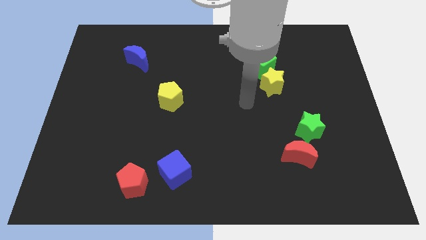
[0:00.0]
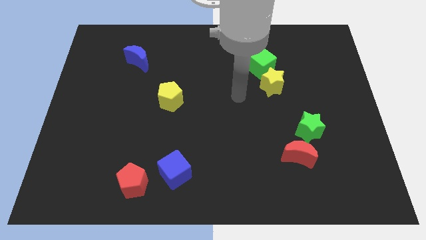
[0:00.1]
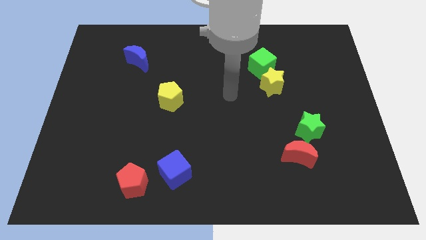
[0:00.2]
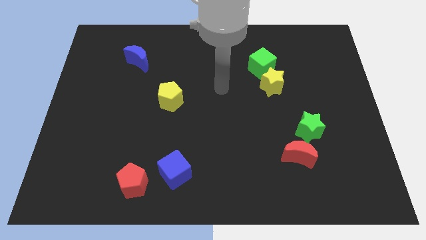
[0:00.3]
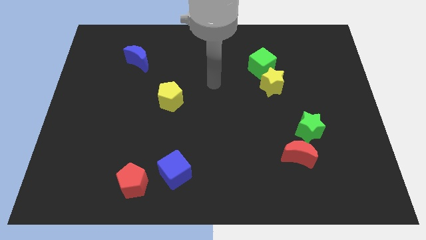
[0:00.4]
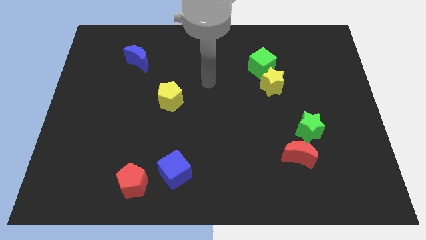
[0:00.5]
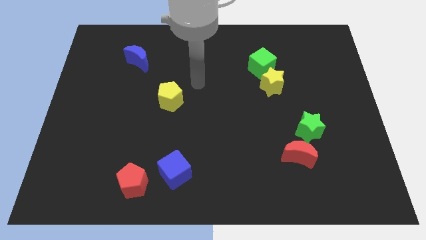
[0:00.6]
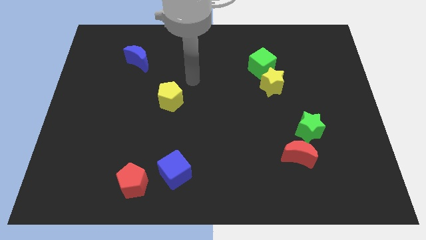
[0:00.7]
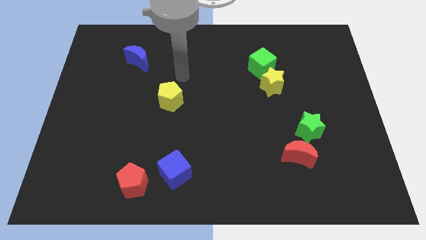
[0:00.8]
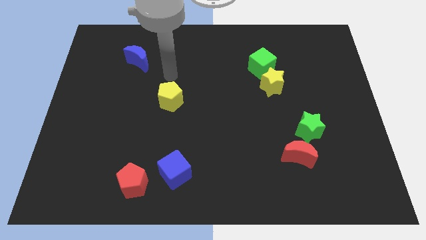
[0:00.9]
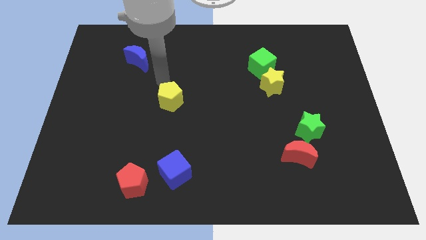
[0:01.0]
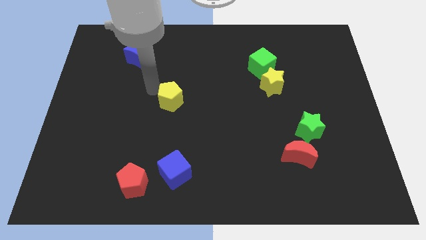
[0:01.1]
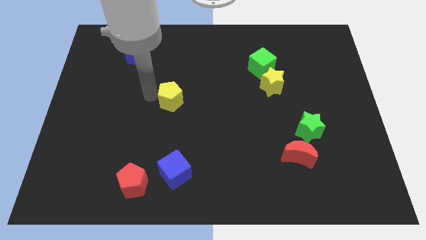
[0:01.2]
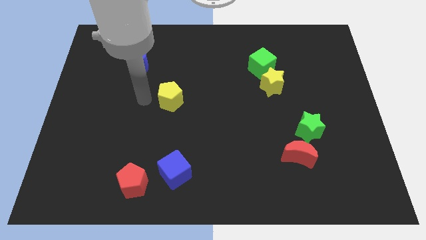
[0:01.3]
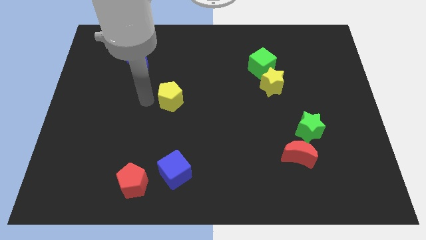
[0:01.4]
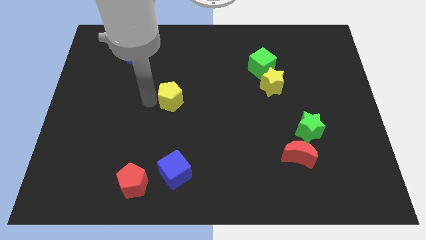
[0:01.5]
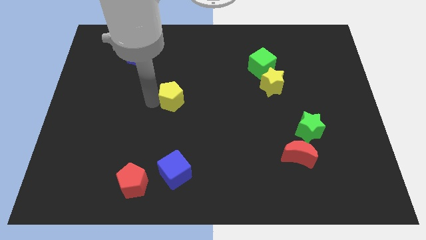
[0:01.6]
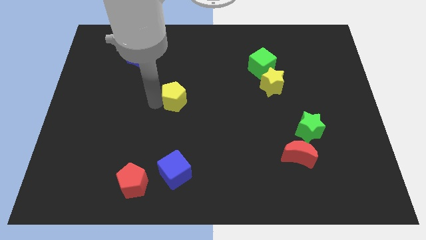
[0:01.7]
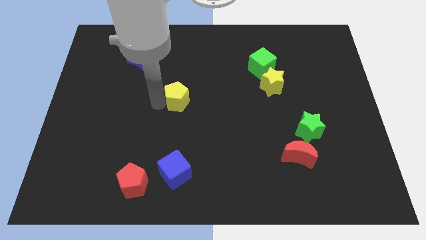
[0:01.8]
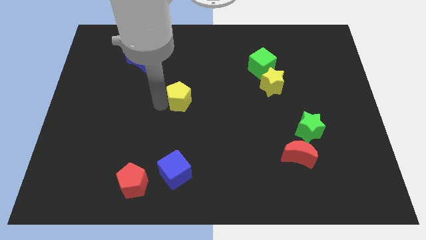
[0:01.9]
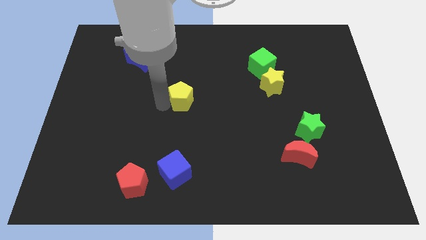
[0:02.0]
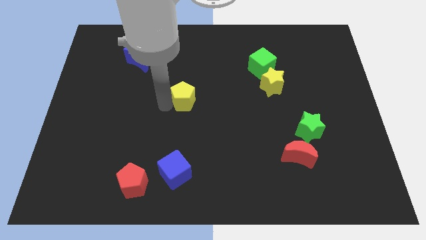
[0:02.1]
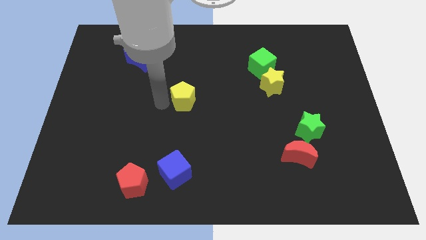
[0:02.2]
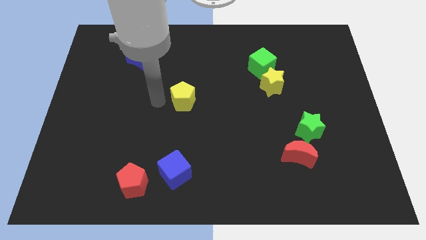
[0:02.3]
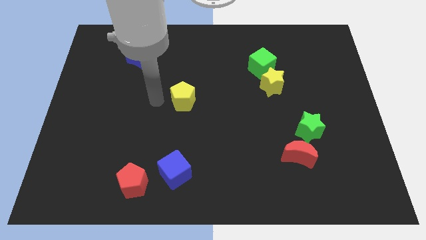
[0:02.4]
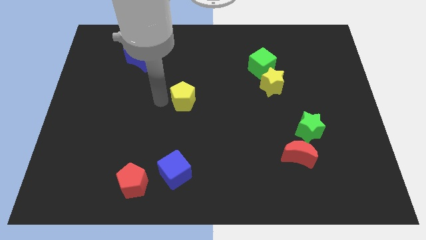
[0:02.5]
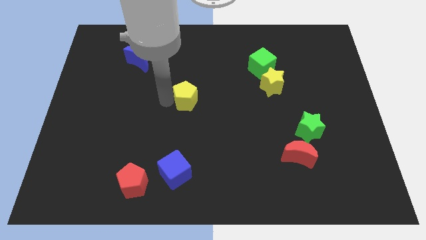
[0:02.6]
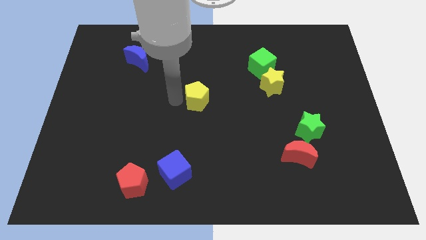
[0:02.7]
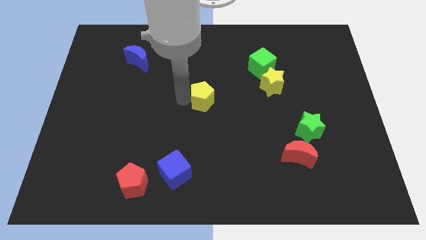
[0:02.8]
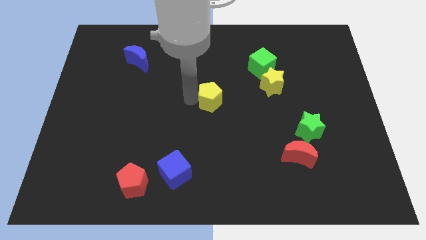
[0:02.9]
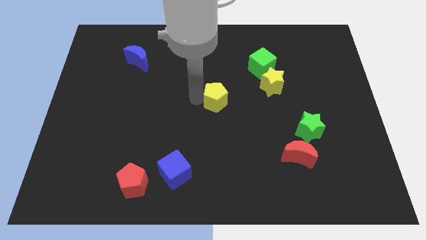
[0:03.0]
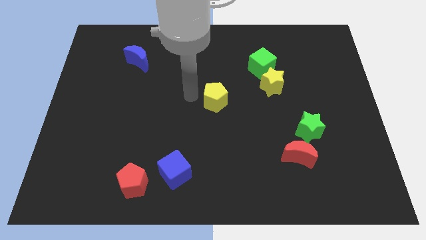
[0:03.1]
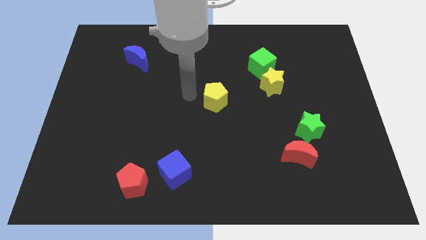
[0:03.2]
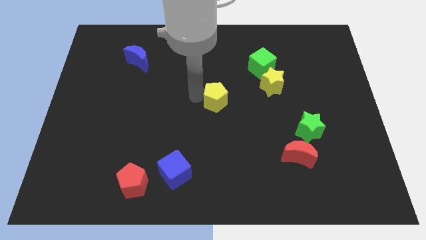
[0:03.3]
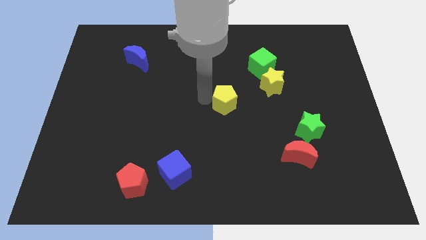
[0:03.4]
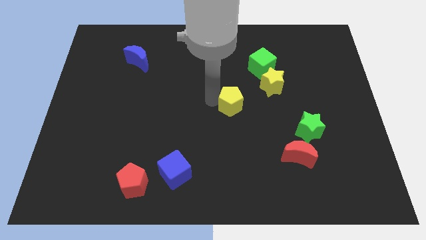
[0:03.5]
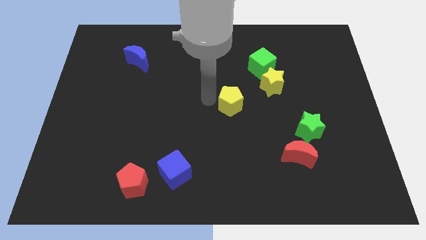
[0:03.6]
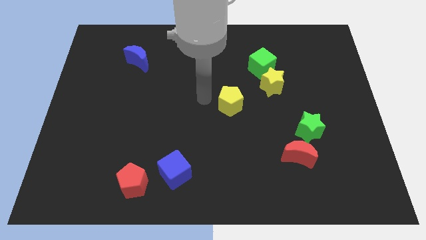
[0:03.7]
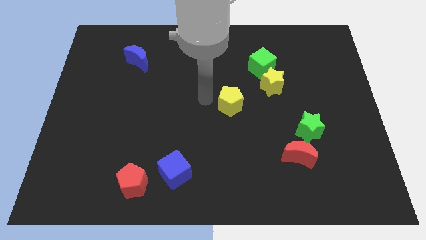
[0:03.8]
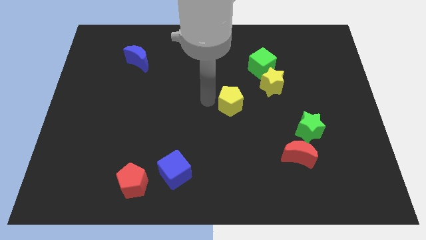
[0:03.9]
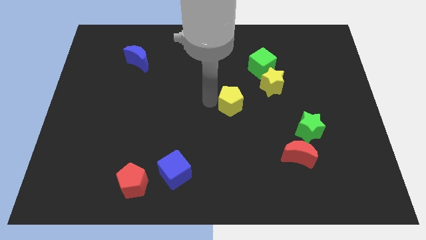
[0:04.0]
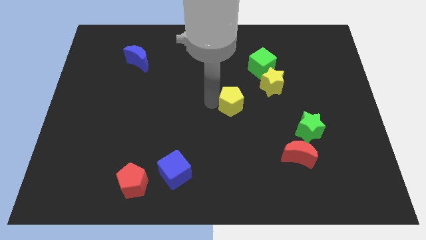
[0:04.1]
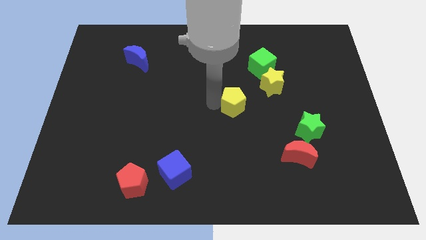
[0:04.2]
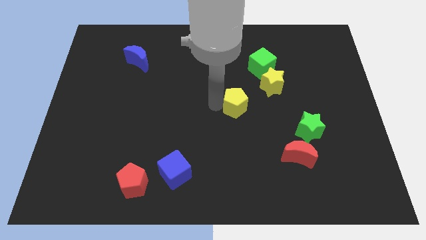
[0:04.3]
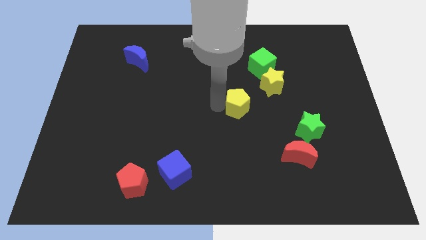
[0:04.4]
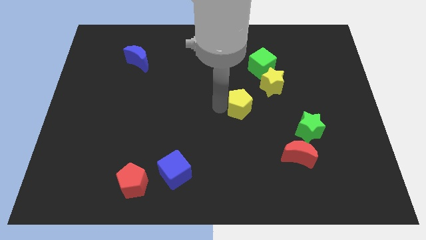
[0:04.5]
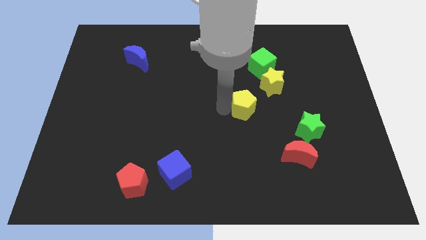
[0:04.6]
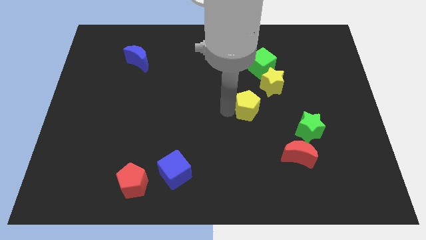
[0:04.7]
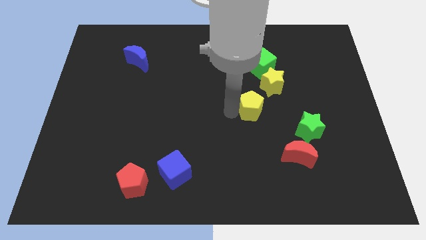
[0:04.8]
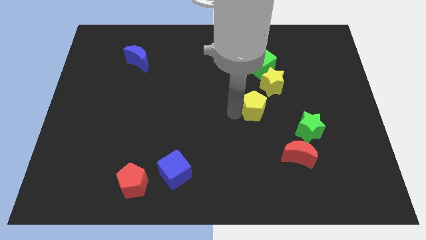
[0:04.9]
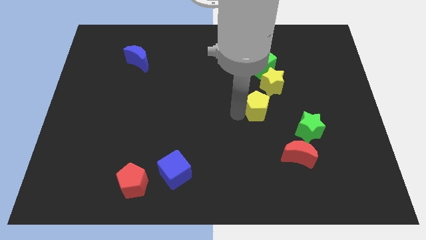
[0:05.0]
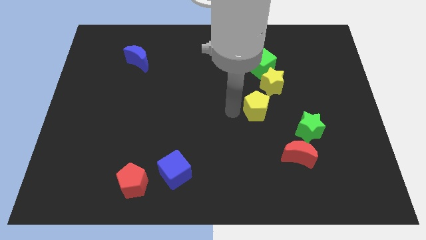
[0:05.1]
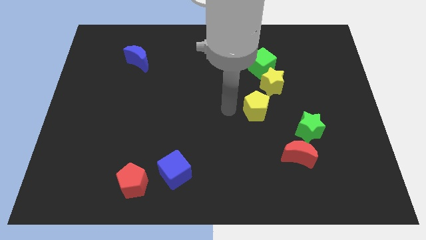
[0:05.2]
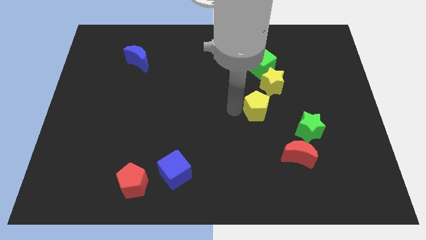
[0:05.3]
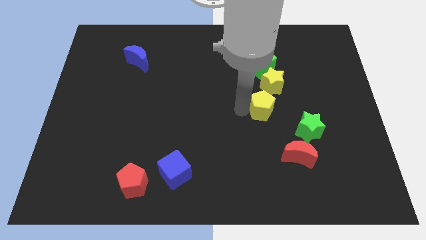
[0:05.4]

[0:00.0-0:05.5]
move the yellow pentagon to the top left of the green star

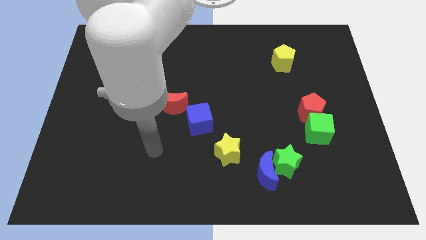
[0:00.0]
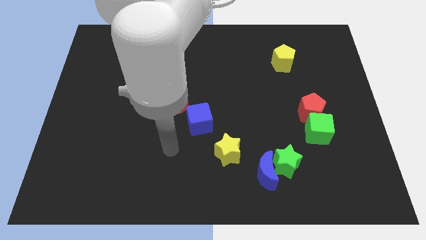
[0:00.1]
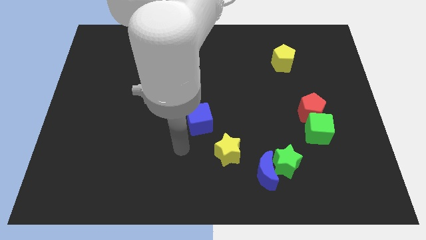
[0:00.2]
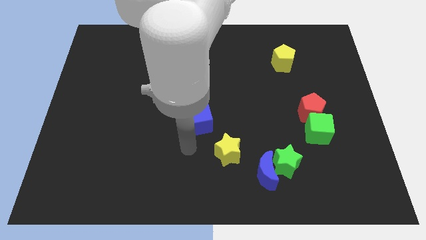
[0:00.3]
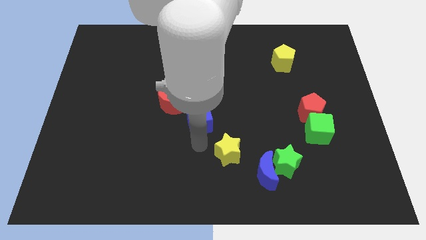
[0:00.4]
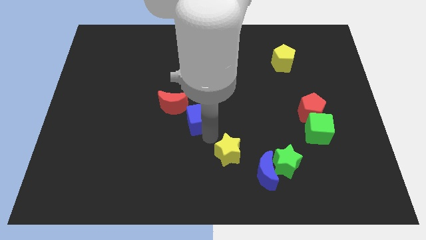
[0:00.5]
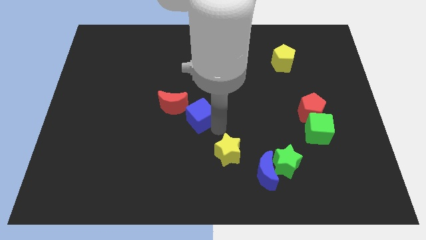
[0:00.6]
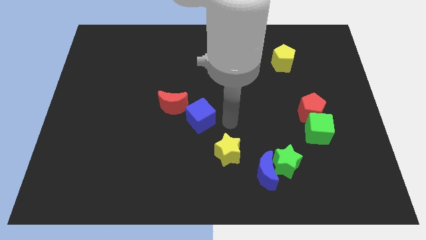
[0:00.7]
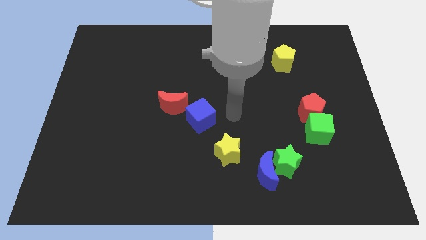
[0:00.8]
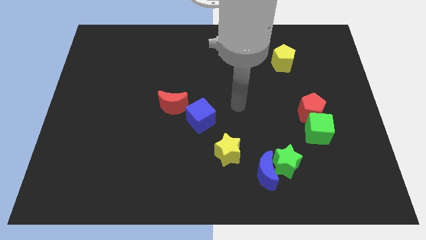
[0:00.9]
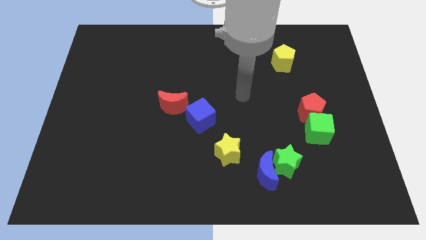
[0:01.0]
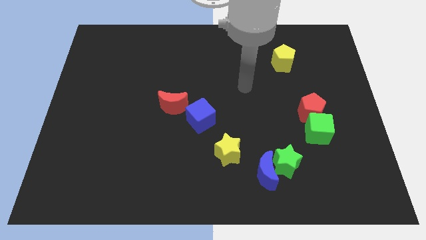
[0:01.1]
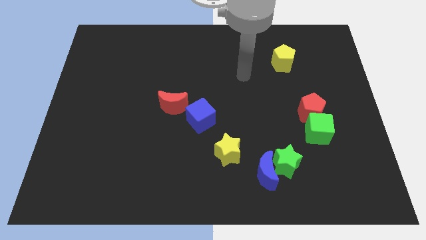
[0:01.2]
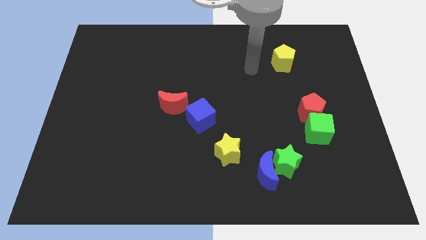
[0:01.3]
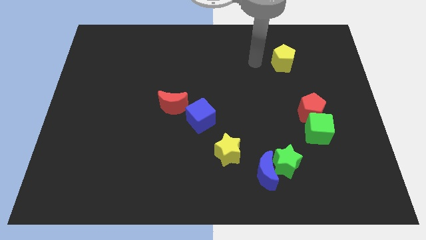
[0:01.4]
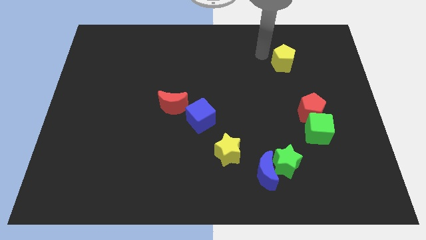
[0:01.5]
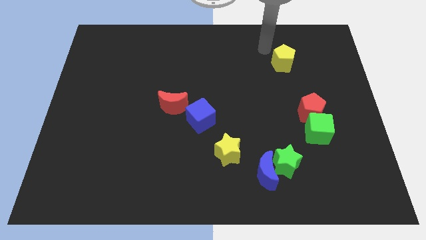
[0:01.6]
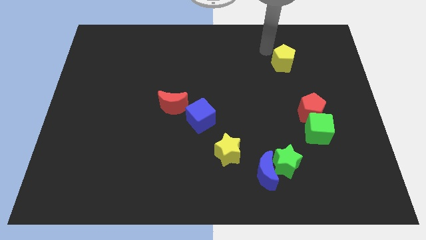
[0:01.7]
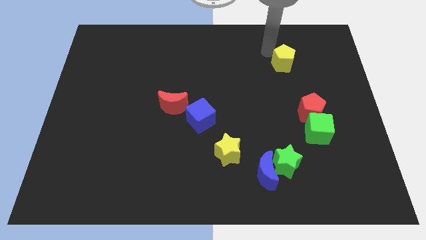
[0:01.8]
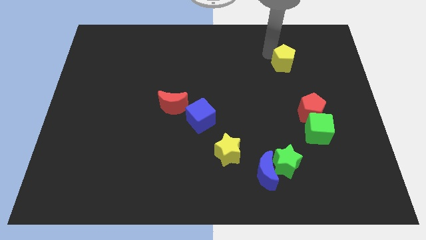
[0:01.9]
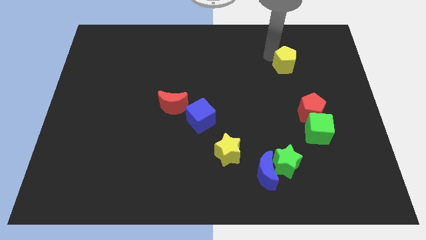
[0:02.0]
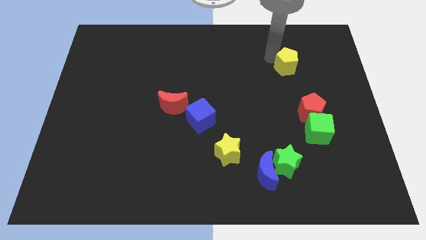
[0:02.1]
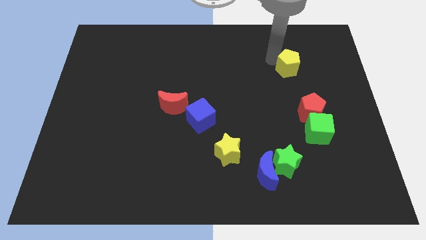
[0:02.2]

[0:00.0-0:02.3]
push the yellow pentagon to the top side of the red pentagon

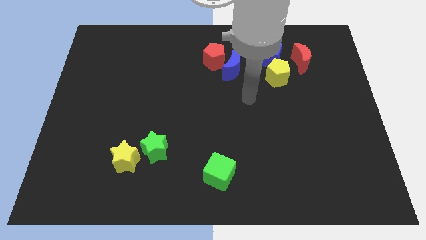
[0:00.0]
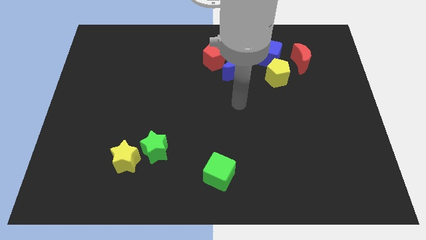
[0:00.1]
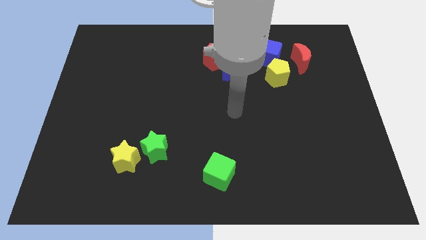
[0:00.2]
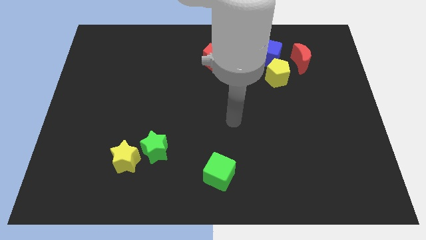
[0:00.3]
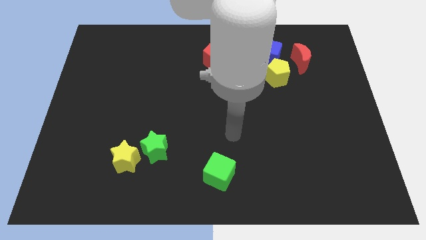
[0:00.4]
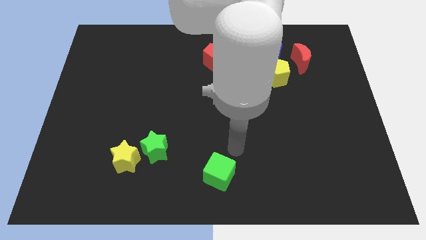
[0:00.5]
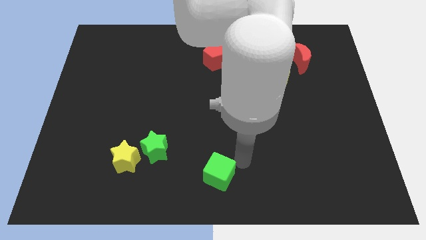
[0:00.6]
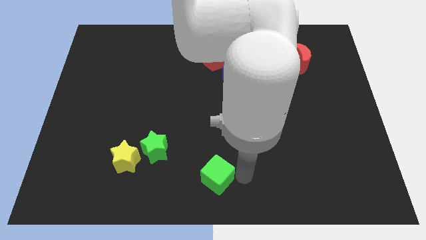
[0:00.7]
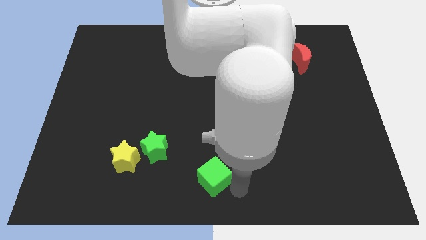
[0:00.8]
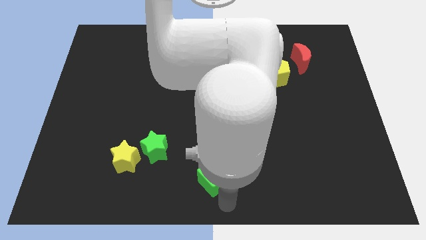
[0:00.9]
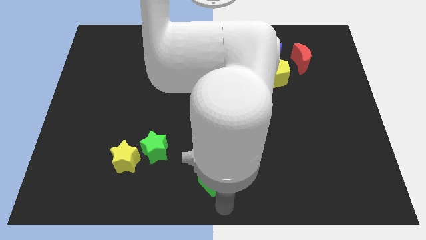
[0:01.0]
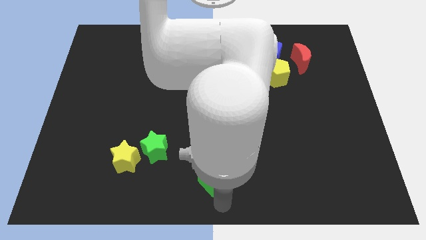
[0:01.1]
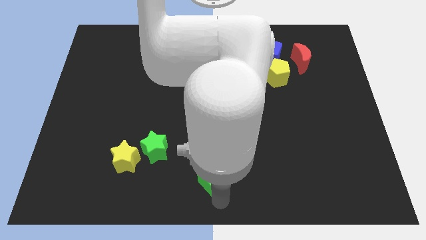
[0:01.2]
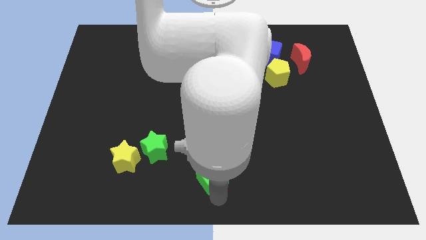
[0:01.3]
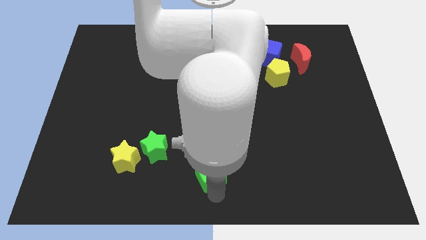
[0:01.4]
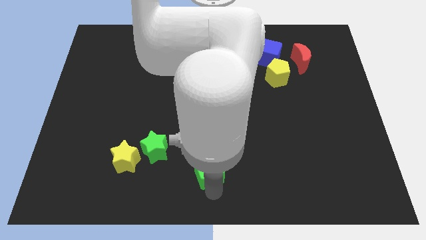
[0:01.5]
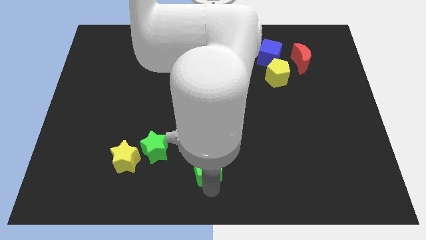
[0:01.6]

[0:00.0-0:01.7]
put the green cube to the right of the green star
